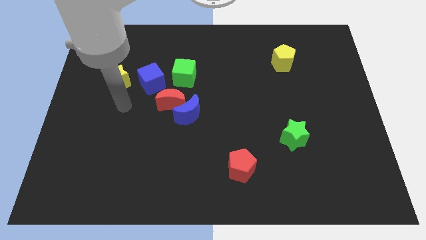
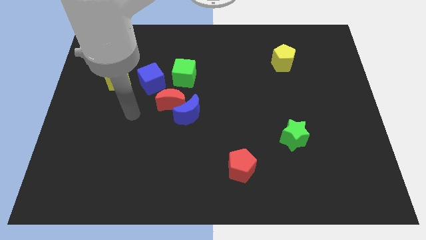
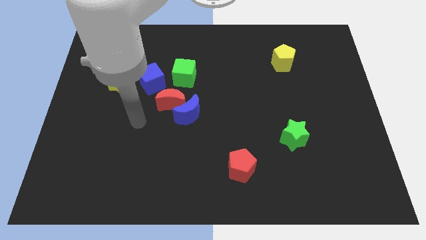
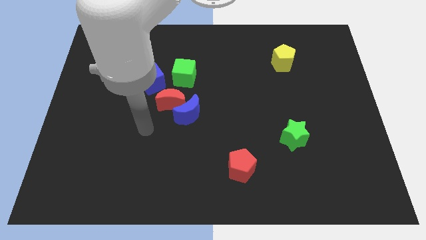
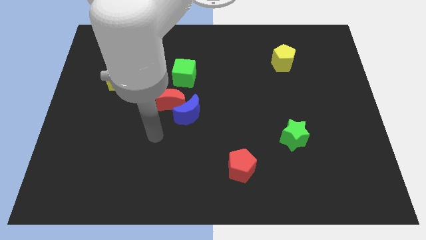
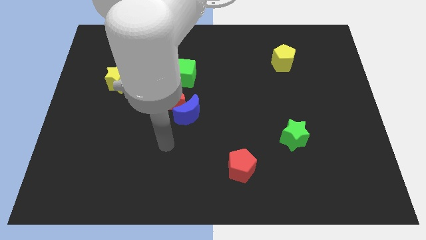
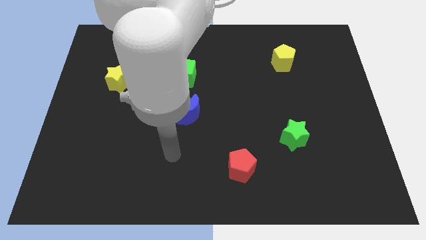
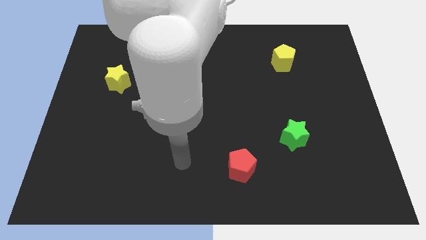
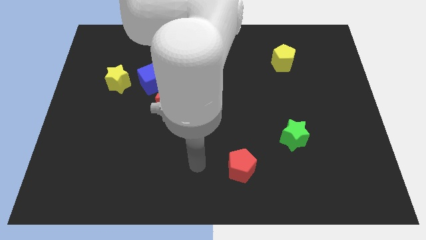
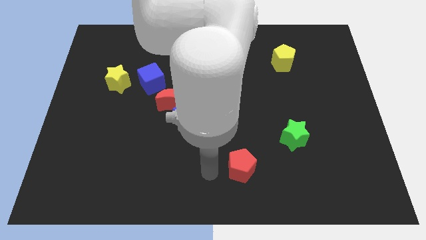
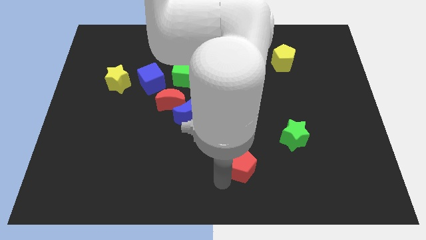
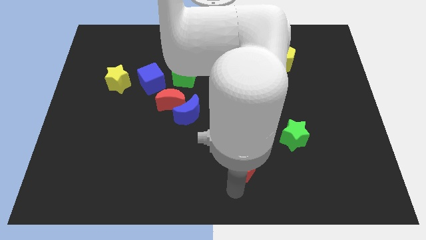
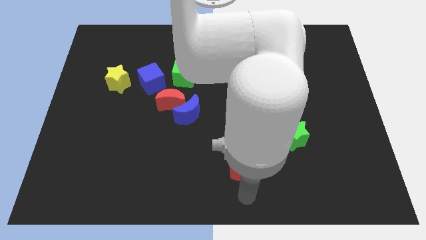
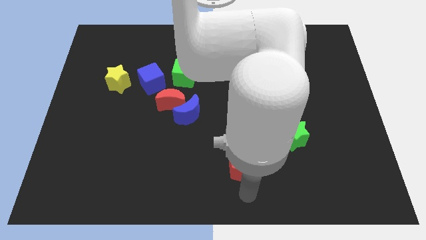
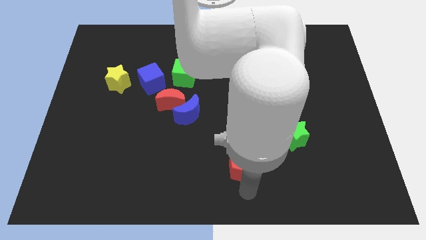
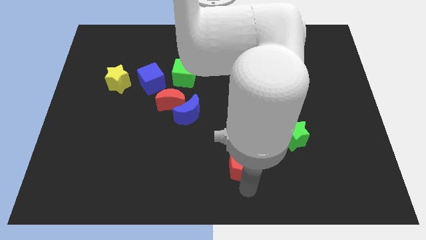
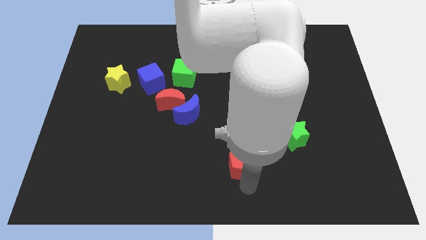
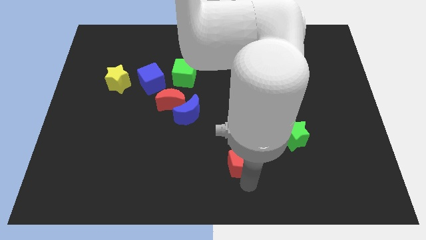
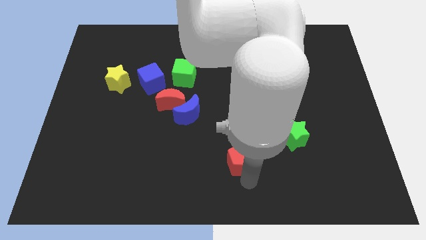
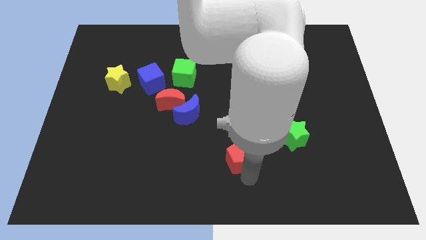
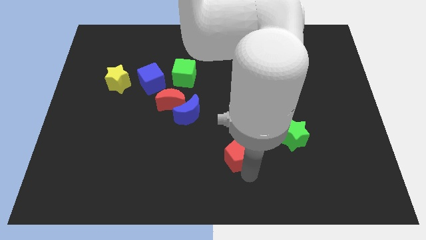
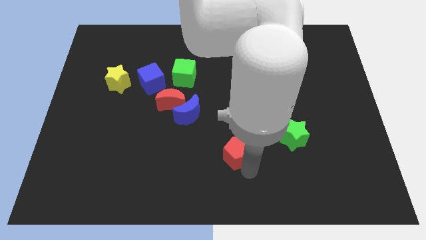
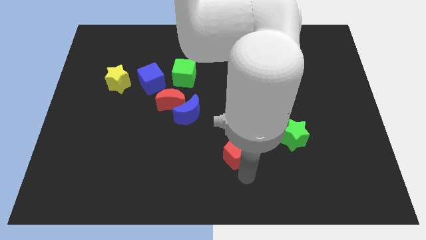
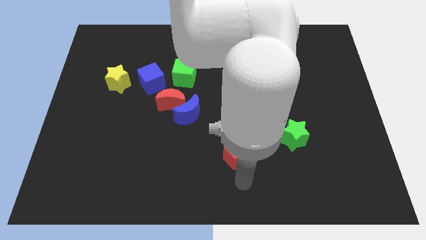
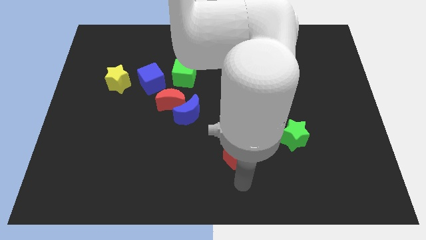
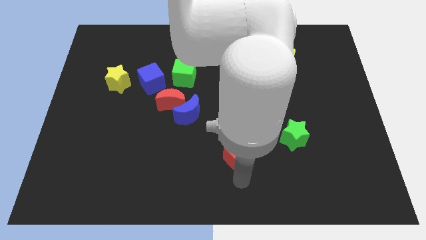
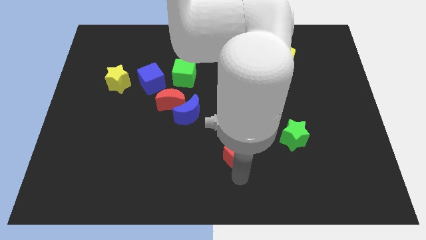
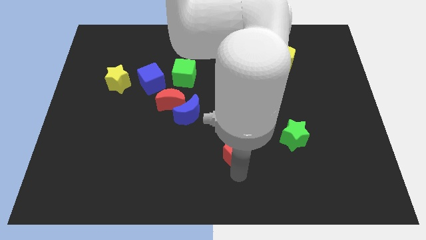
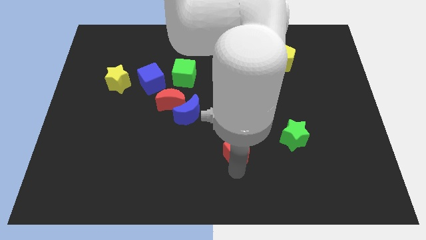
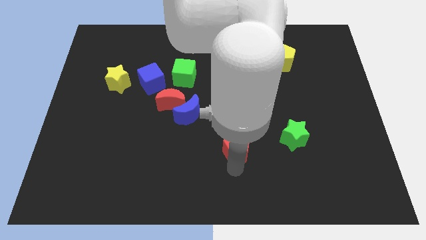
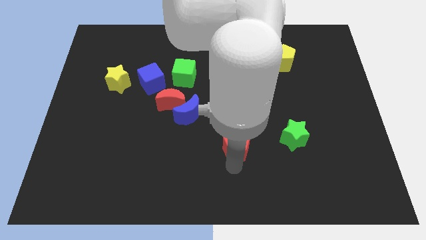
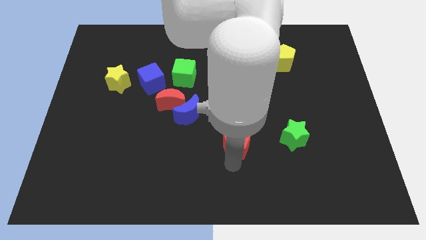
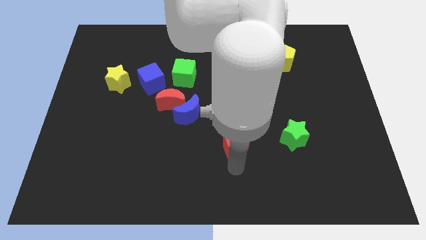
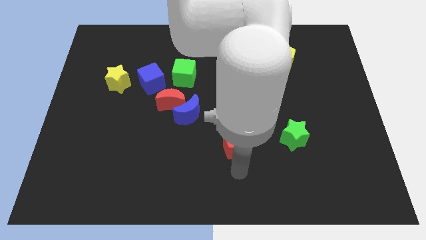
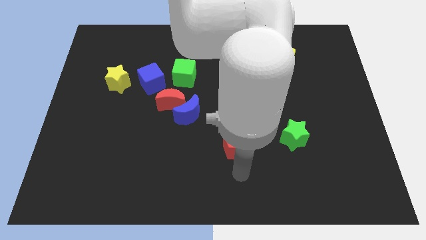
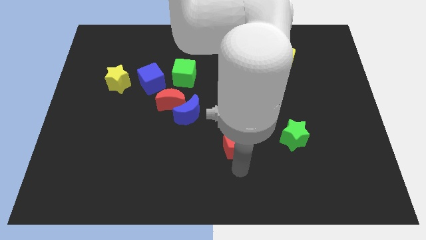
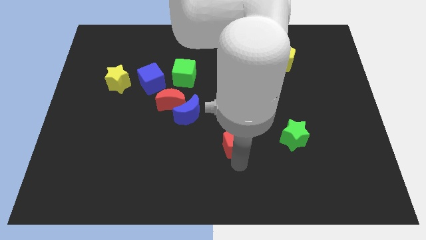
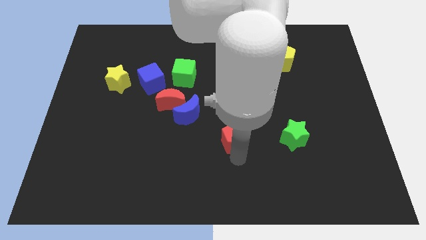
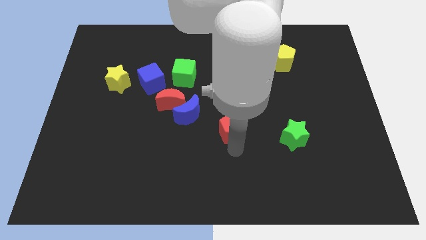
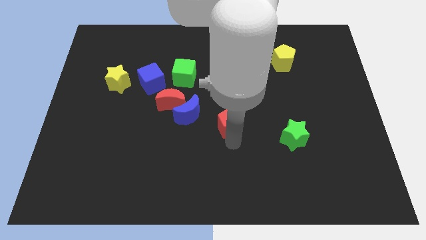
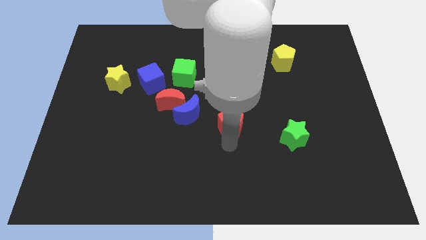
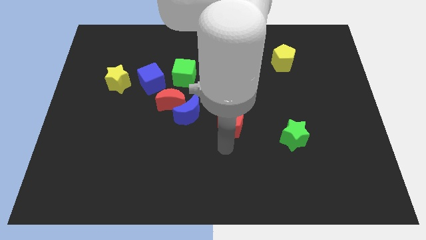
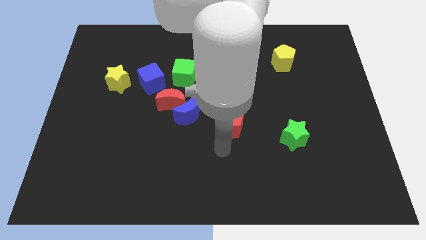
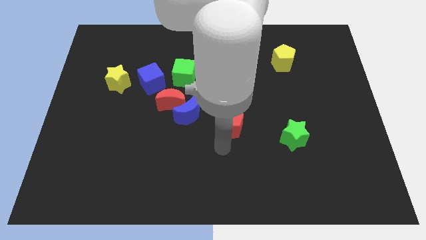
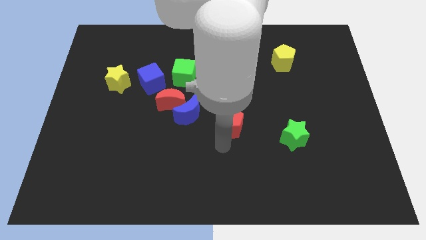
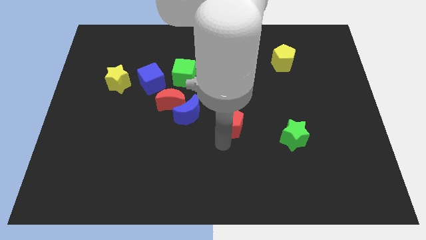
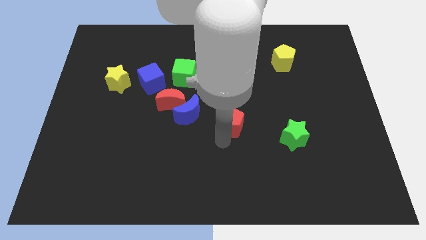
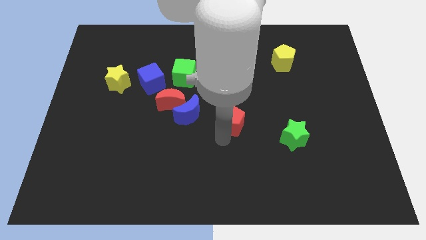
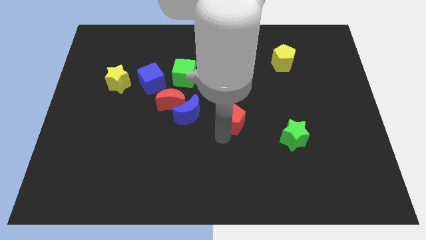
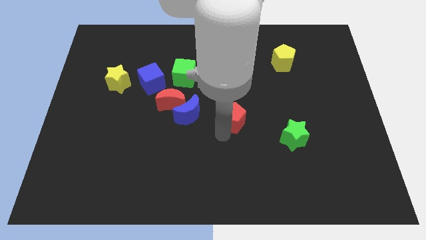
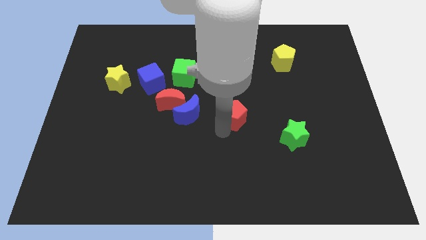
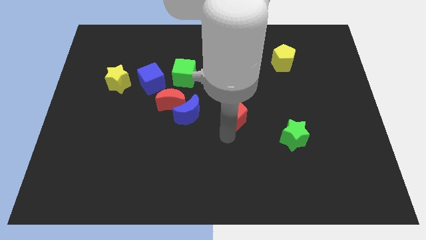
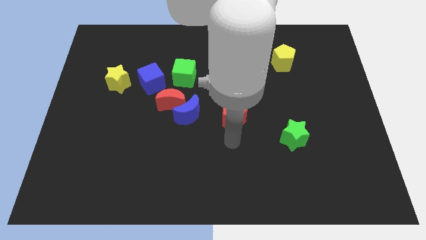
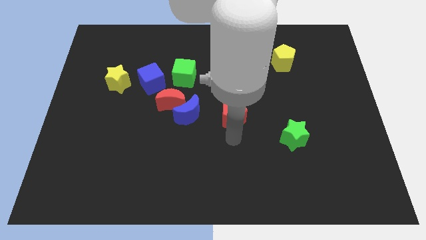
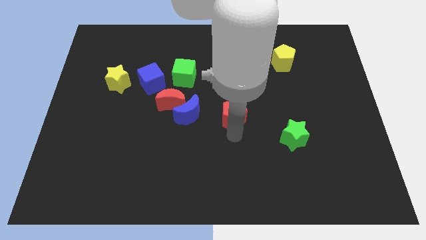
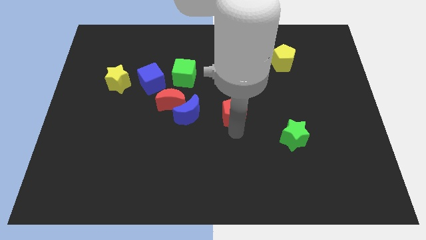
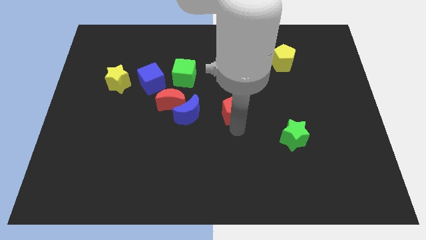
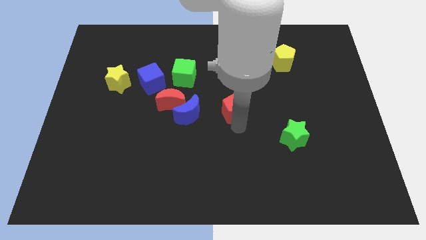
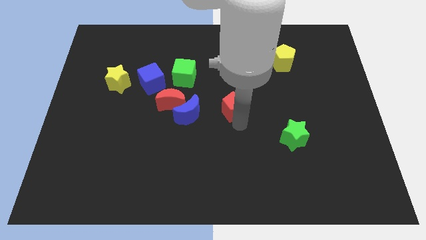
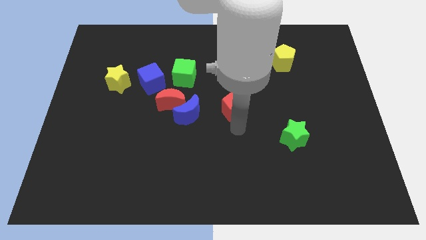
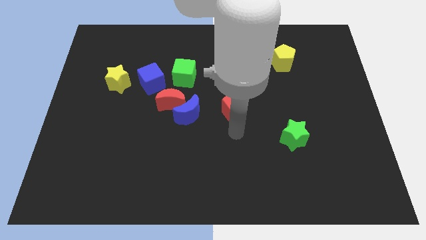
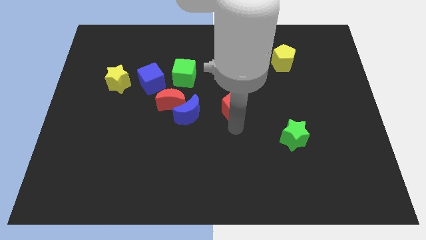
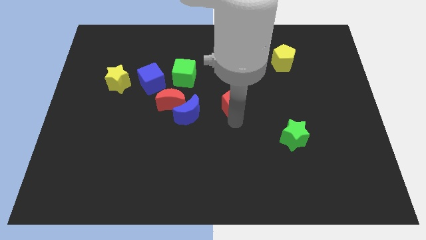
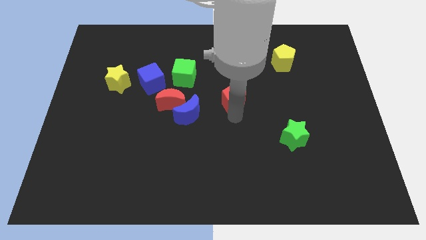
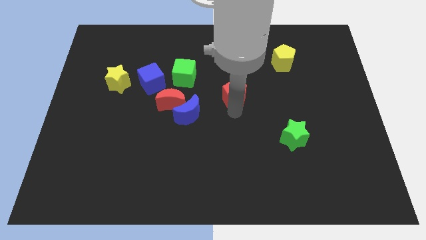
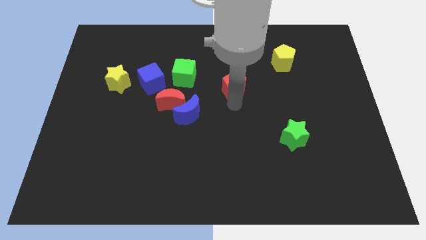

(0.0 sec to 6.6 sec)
push the red pentagon upwards

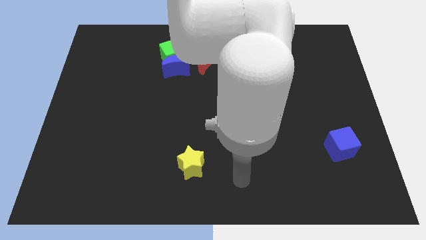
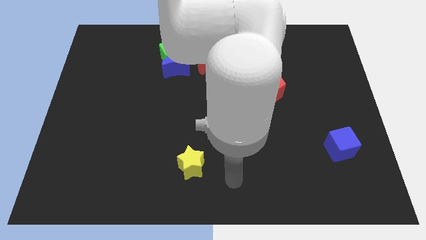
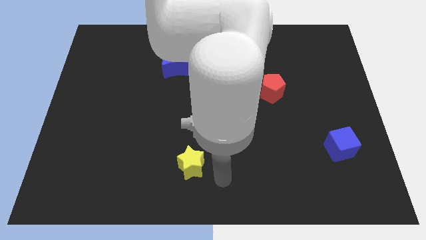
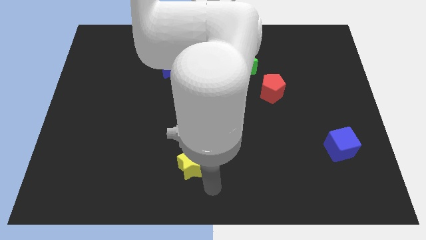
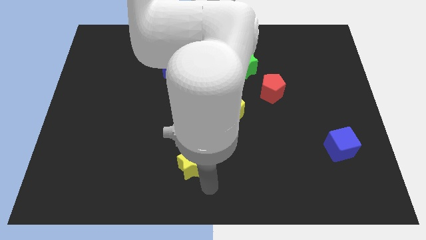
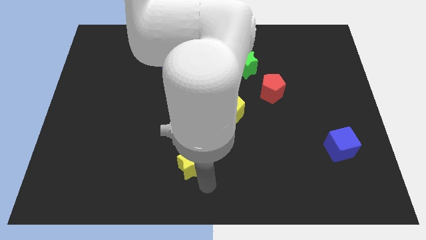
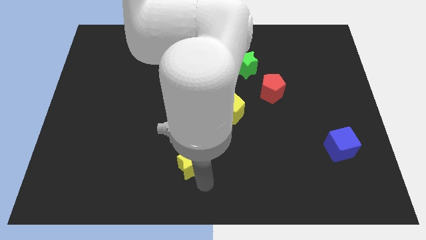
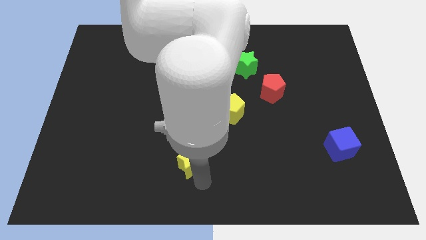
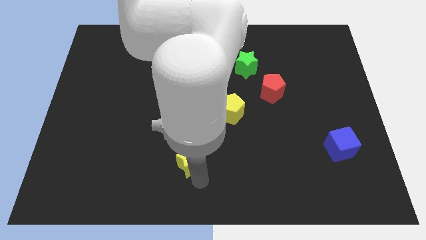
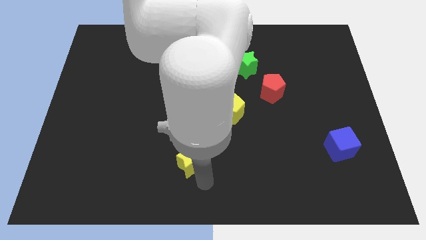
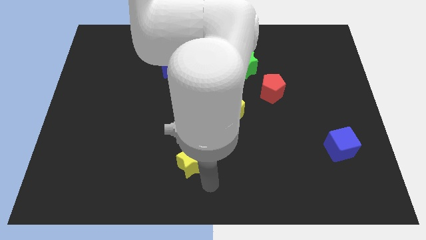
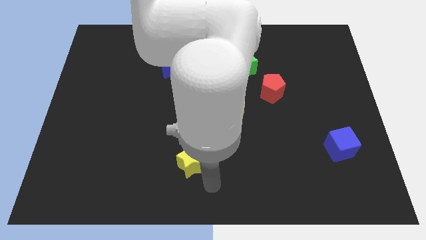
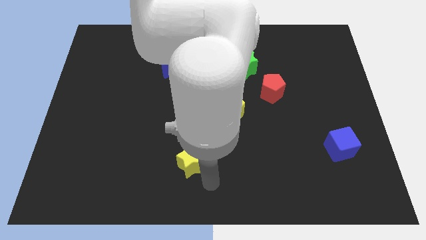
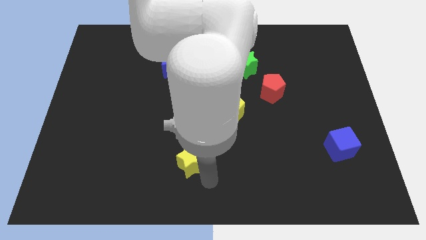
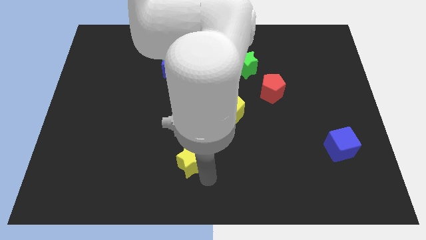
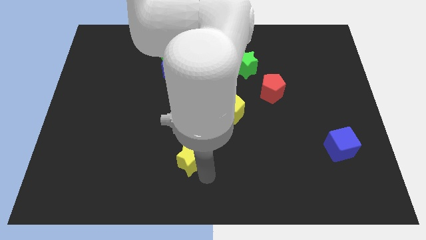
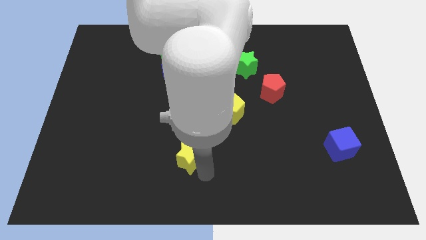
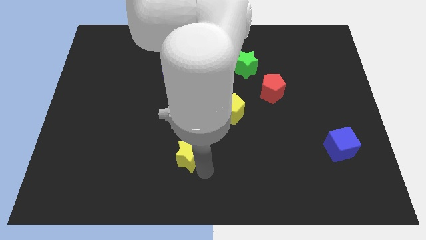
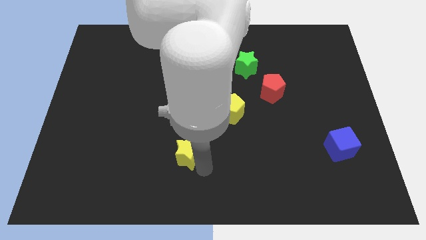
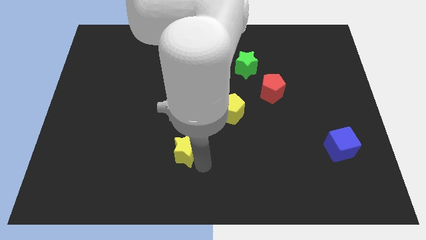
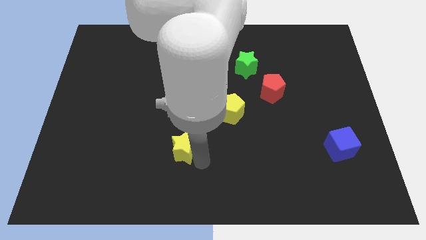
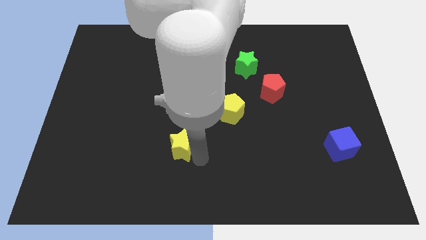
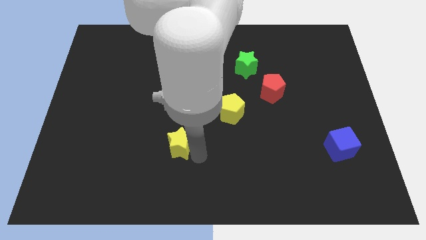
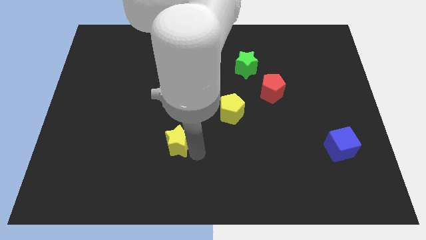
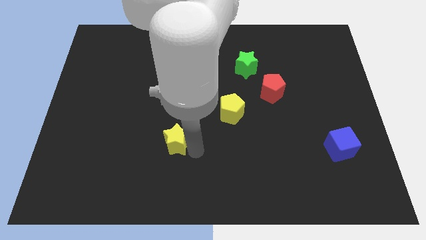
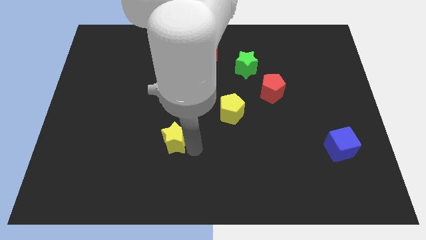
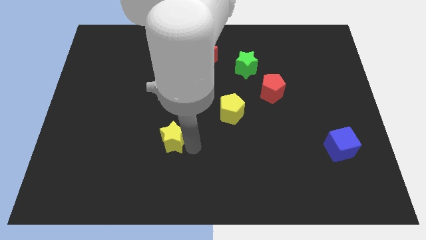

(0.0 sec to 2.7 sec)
push the yellow star diagonally up and to the left a bit
